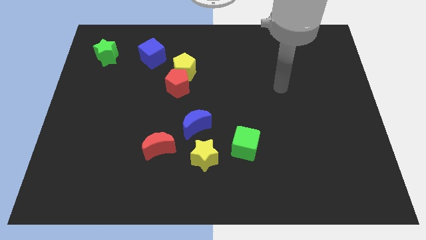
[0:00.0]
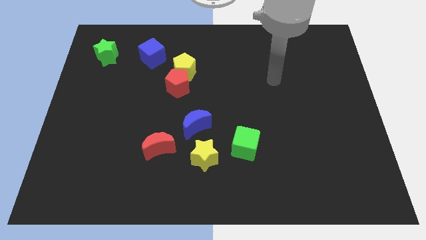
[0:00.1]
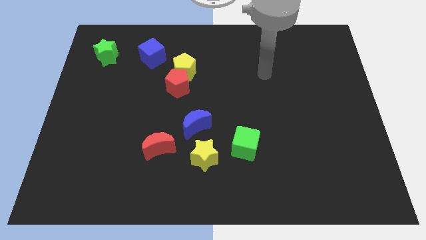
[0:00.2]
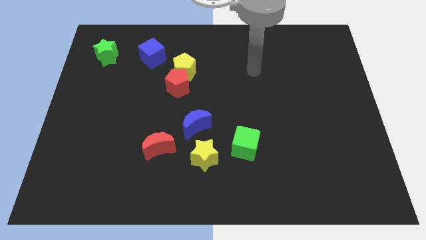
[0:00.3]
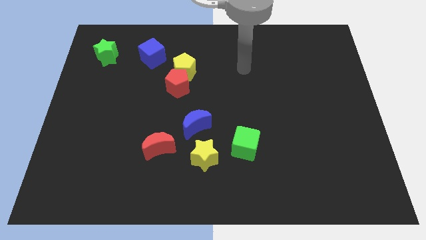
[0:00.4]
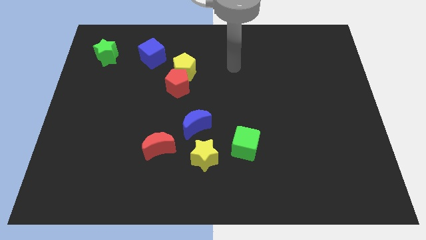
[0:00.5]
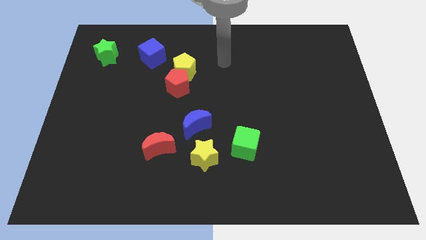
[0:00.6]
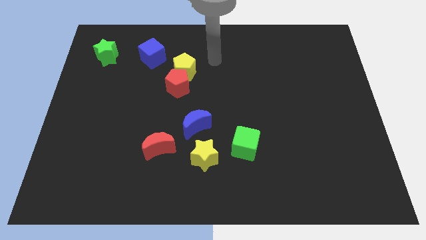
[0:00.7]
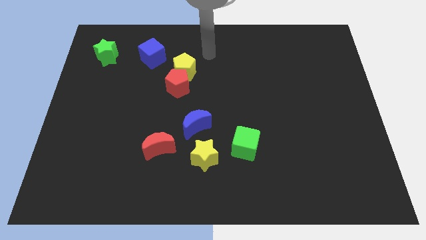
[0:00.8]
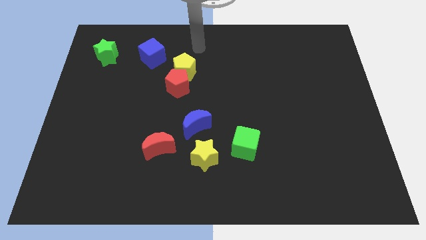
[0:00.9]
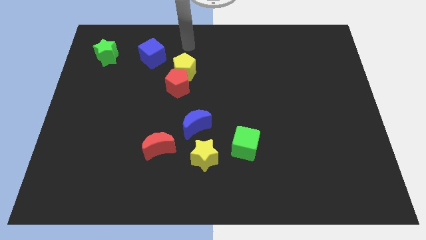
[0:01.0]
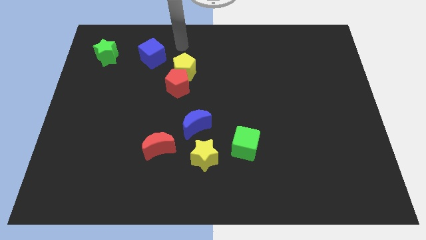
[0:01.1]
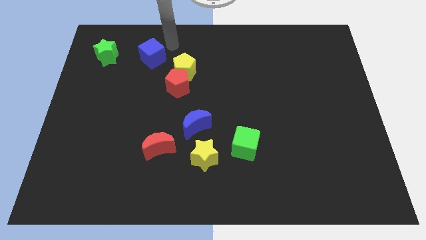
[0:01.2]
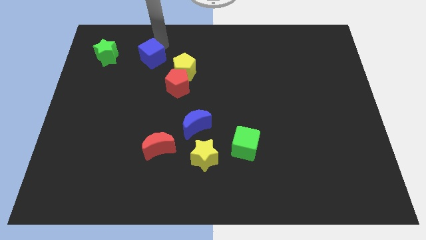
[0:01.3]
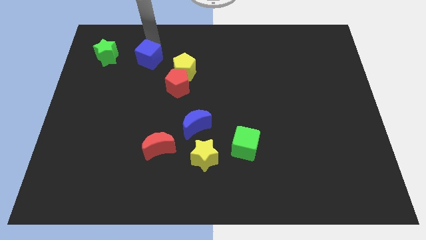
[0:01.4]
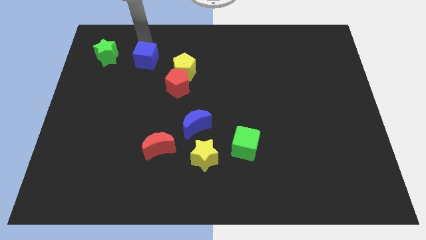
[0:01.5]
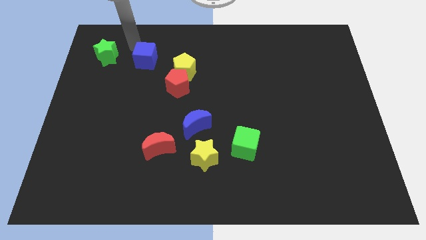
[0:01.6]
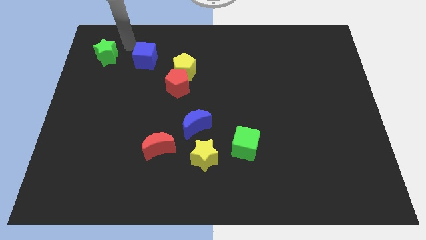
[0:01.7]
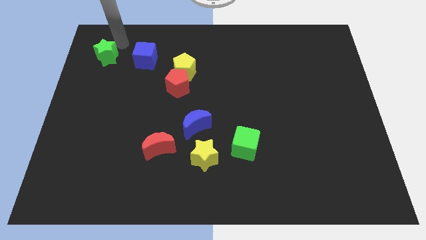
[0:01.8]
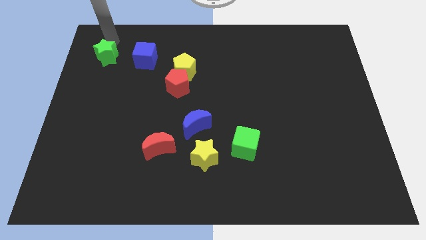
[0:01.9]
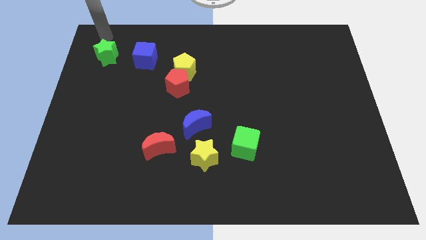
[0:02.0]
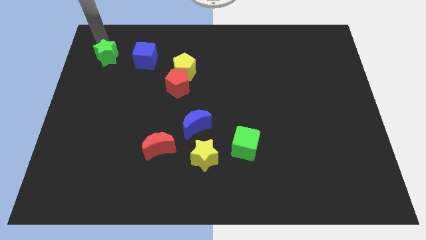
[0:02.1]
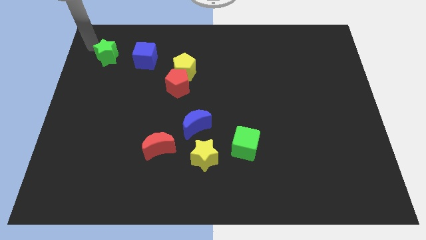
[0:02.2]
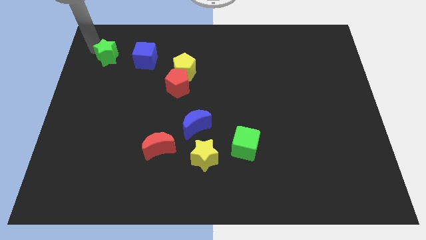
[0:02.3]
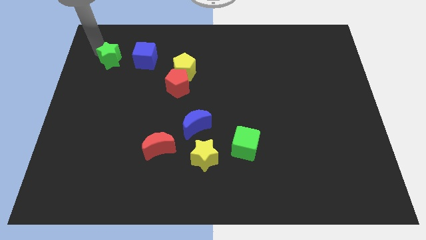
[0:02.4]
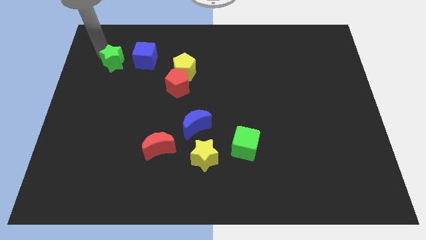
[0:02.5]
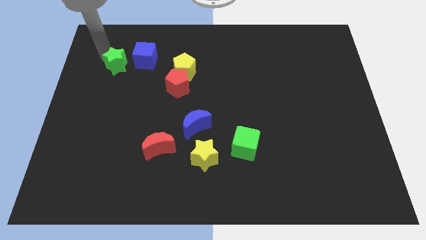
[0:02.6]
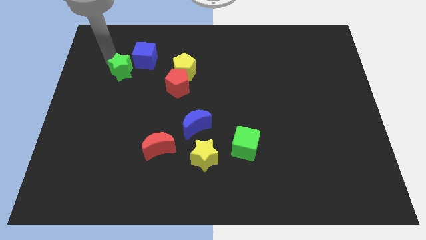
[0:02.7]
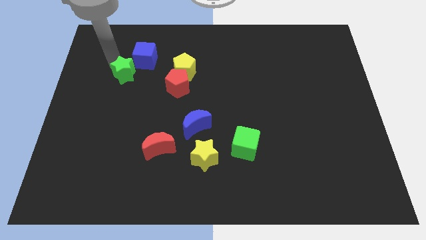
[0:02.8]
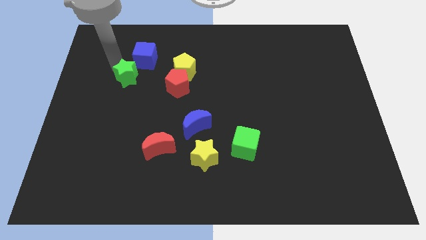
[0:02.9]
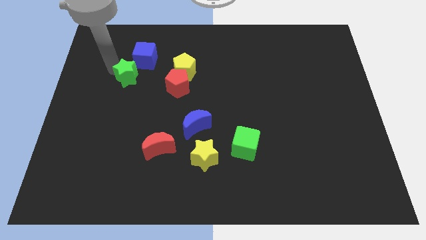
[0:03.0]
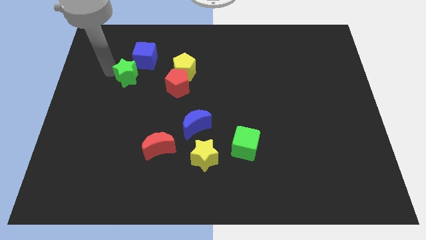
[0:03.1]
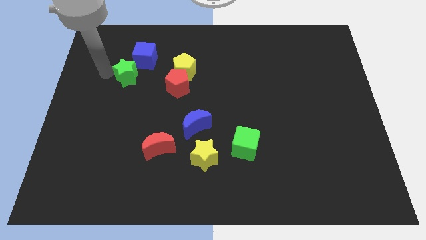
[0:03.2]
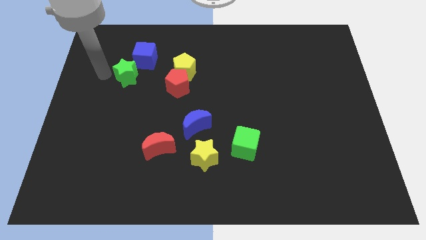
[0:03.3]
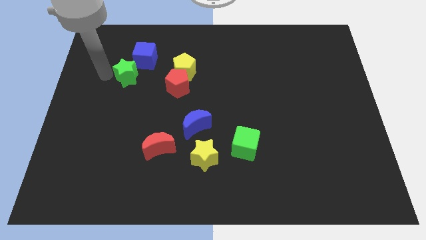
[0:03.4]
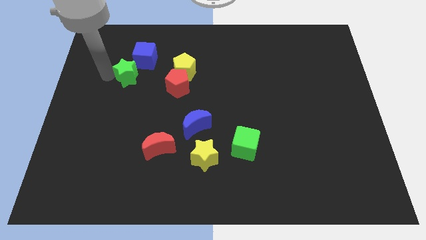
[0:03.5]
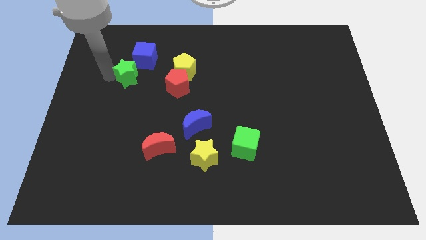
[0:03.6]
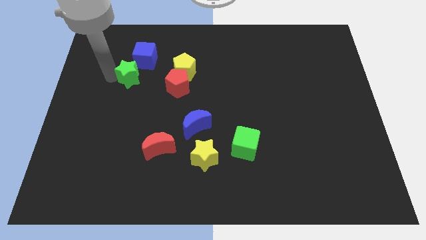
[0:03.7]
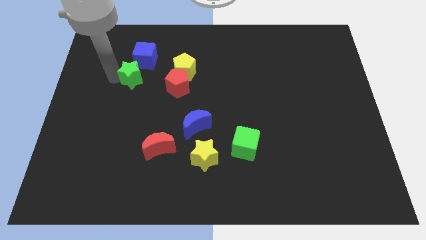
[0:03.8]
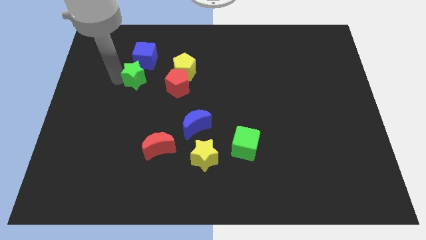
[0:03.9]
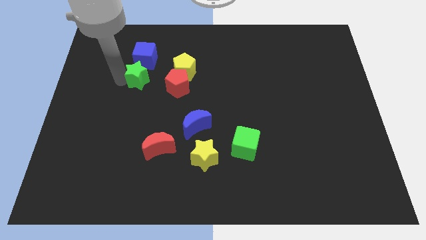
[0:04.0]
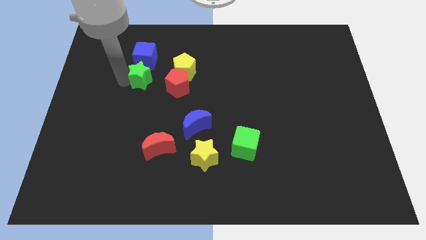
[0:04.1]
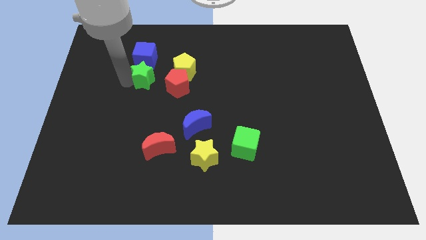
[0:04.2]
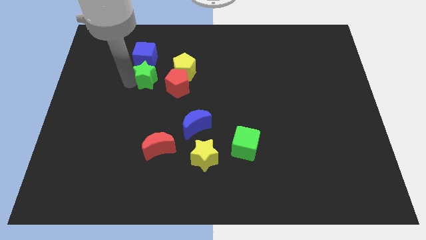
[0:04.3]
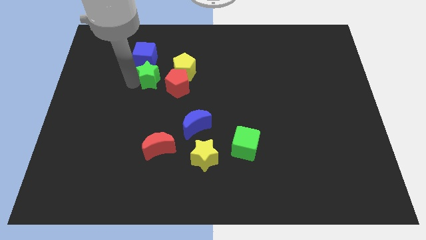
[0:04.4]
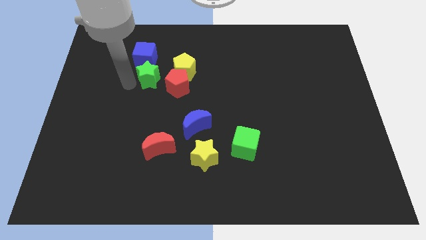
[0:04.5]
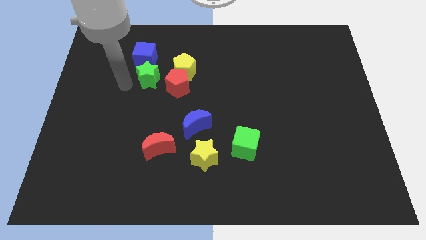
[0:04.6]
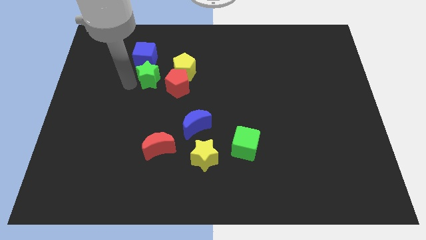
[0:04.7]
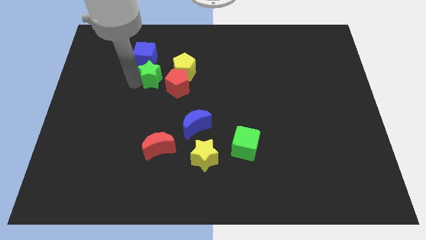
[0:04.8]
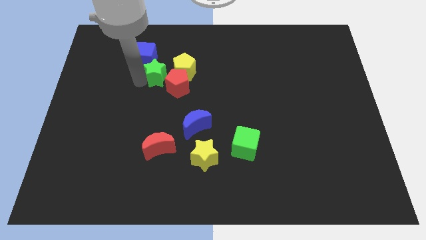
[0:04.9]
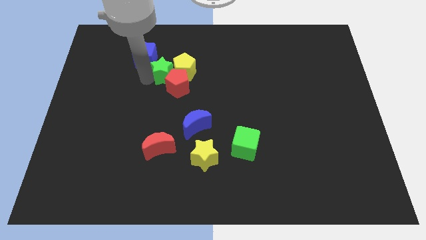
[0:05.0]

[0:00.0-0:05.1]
move the green star towards the yellow pentagon

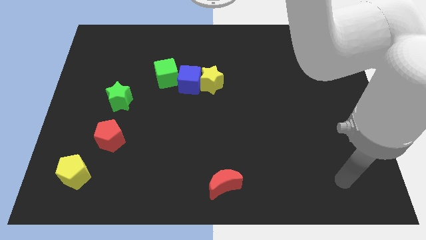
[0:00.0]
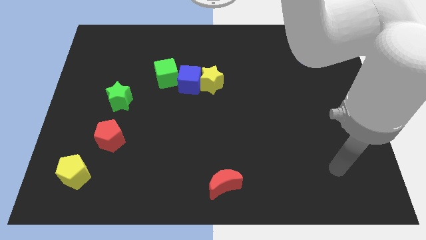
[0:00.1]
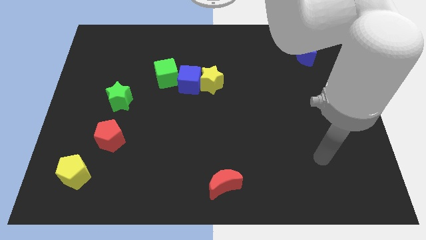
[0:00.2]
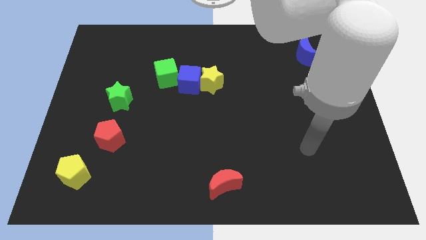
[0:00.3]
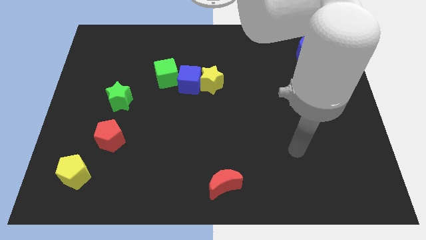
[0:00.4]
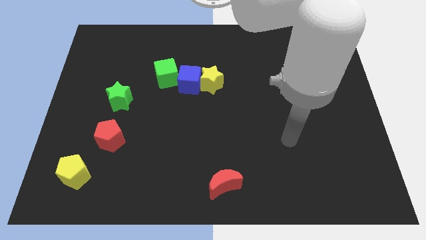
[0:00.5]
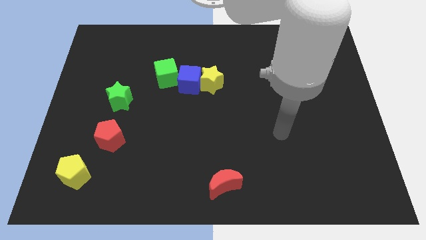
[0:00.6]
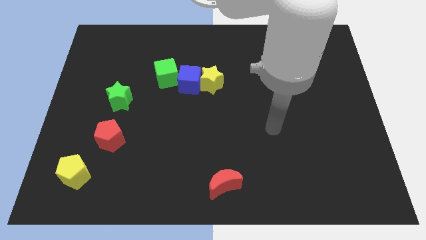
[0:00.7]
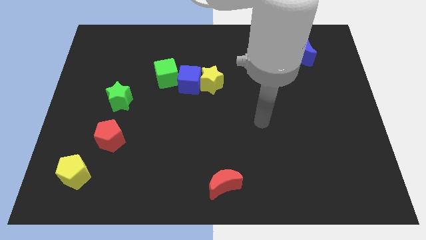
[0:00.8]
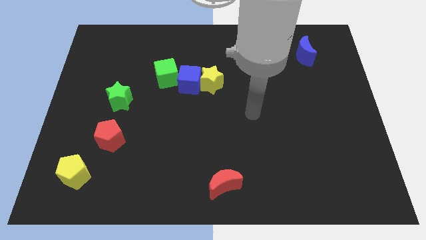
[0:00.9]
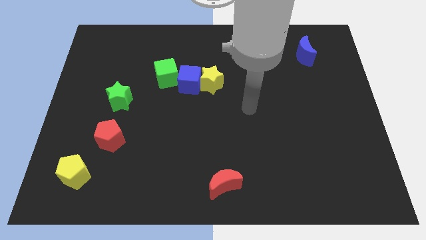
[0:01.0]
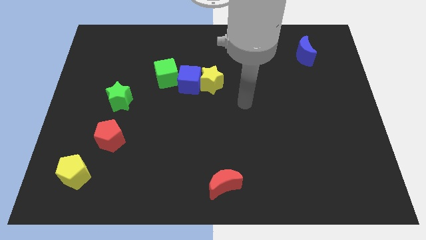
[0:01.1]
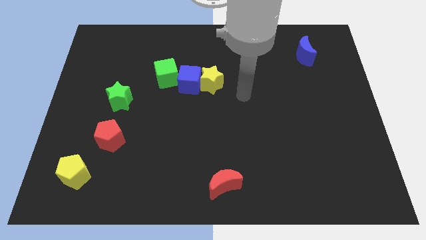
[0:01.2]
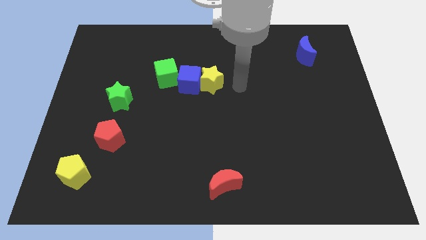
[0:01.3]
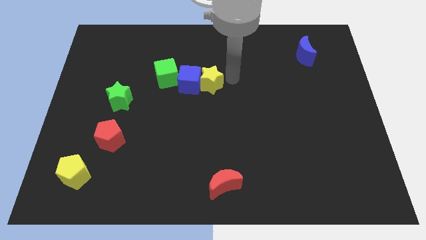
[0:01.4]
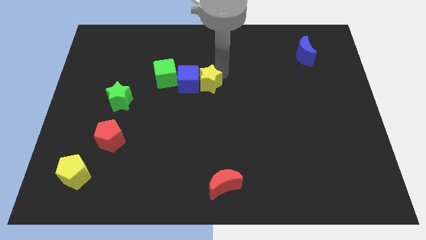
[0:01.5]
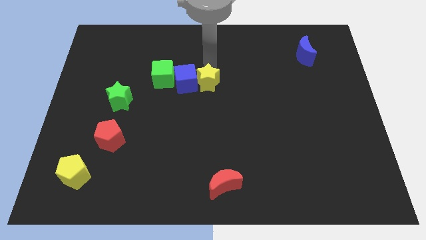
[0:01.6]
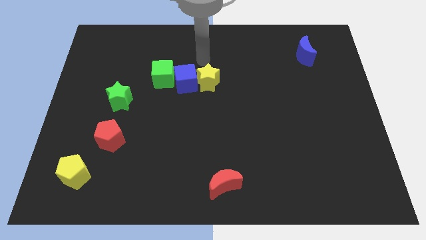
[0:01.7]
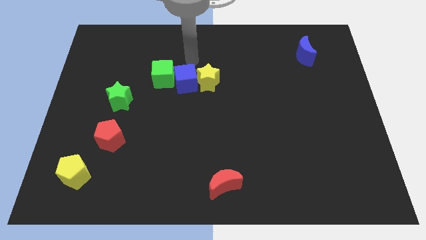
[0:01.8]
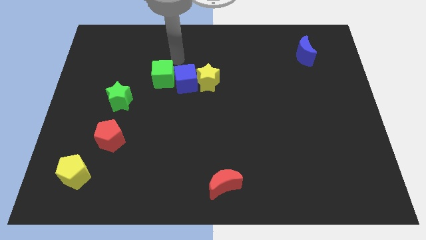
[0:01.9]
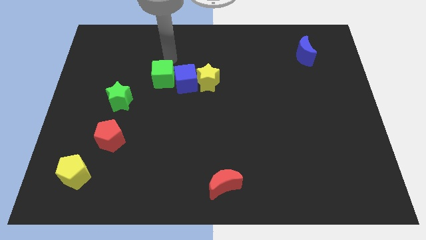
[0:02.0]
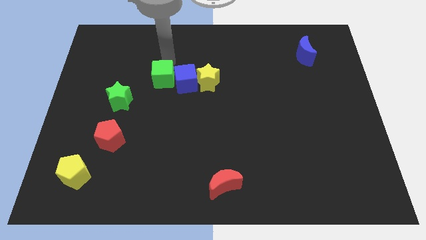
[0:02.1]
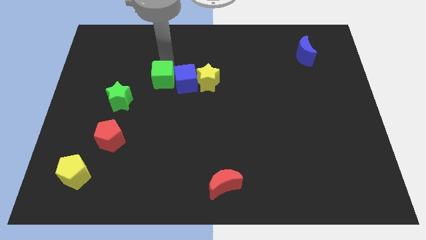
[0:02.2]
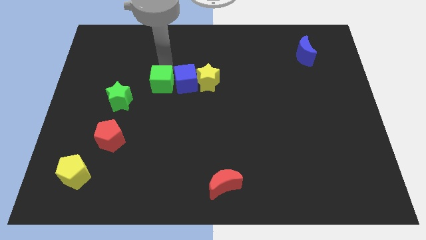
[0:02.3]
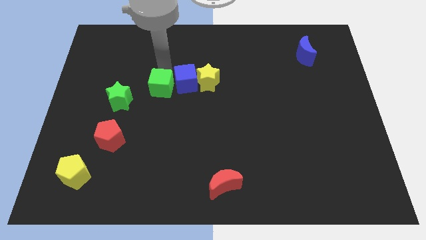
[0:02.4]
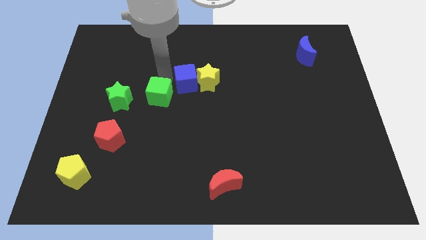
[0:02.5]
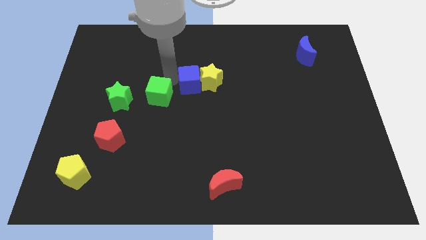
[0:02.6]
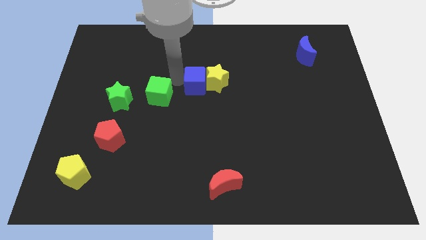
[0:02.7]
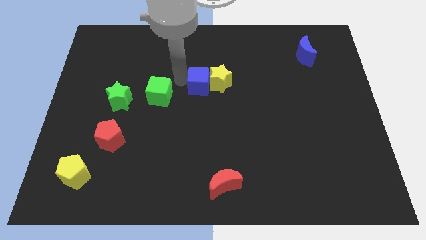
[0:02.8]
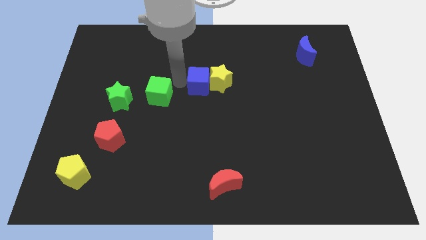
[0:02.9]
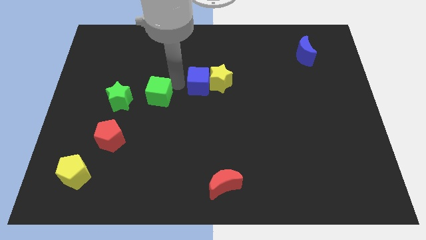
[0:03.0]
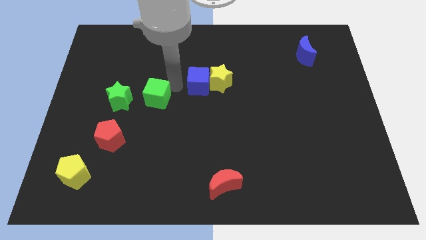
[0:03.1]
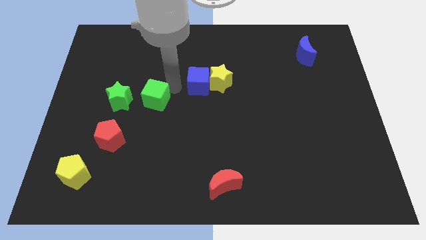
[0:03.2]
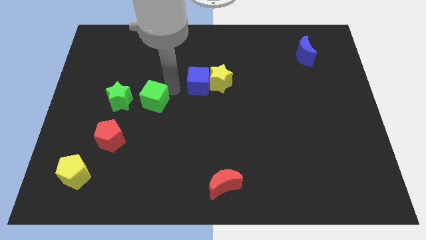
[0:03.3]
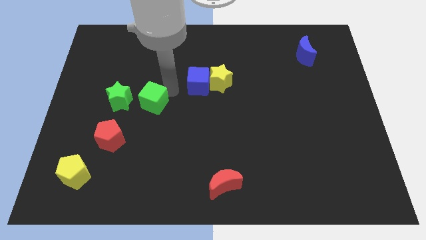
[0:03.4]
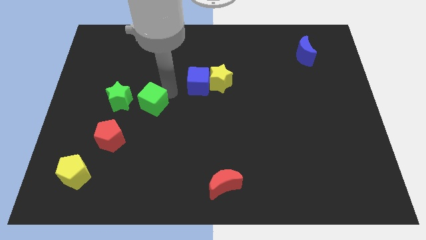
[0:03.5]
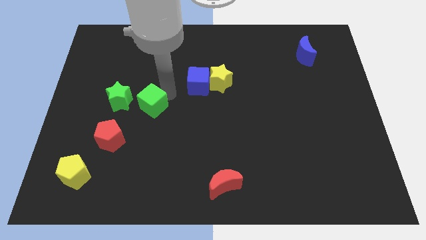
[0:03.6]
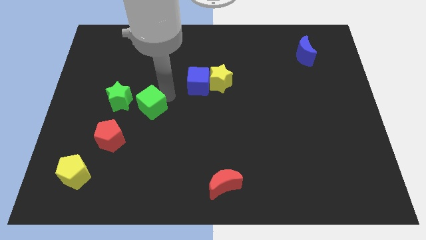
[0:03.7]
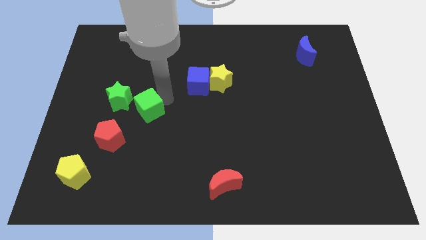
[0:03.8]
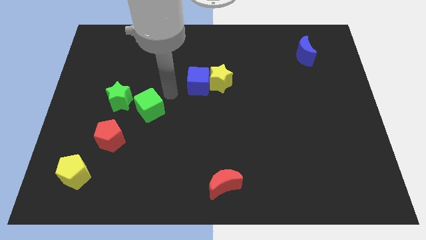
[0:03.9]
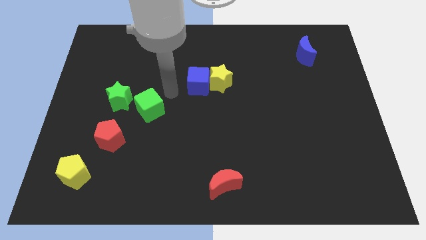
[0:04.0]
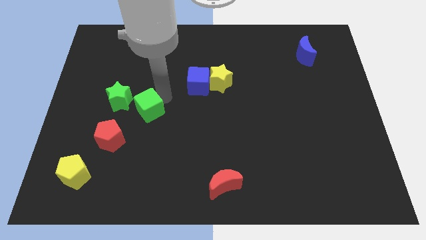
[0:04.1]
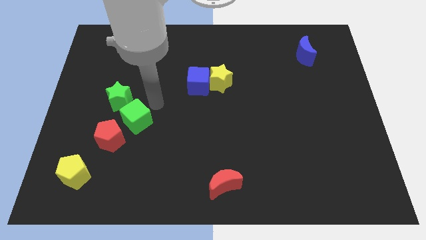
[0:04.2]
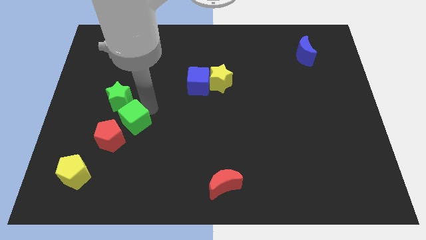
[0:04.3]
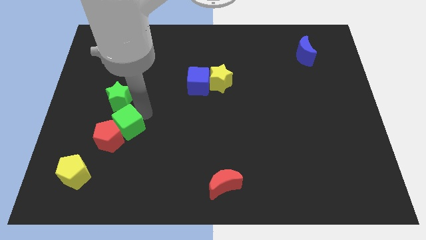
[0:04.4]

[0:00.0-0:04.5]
push the green cube next to the red pentagon
